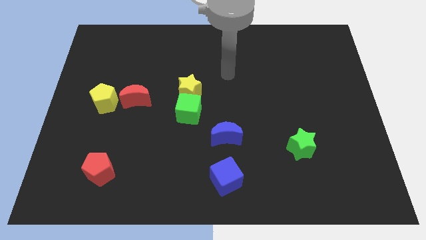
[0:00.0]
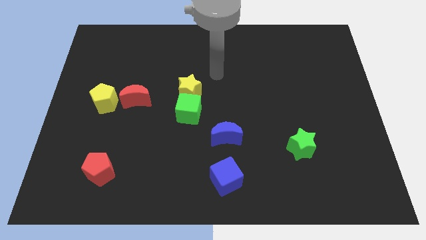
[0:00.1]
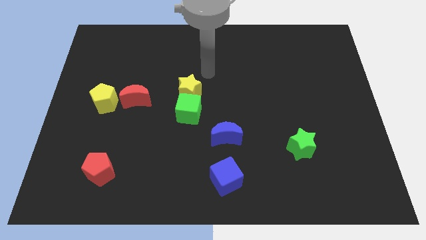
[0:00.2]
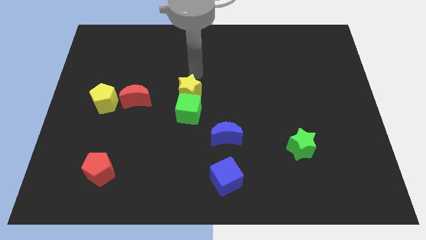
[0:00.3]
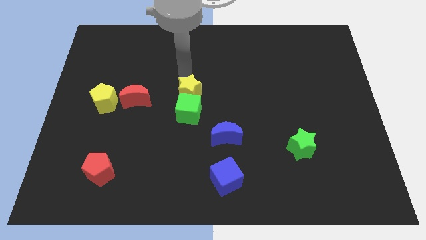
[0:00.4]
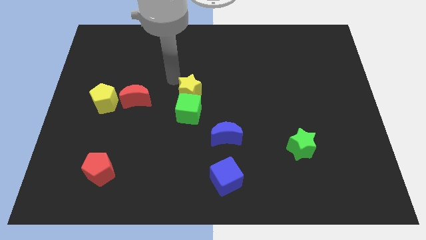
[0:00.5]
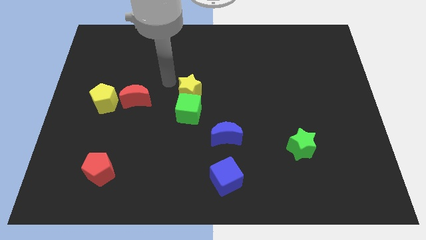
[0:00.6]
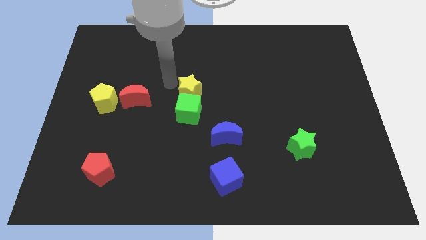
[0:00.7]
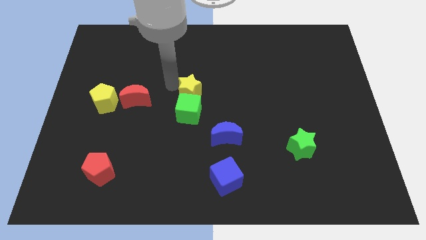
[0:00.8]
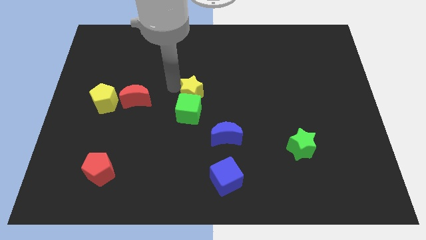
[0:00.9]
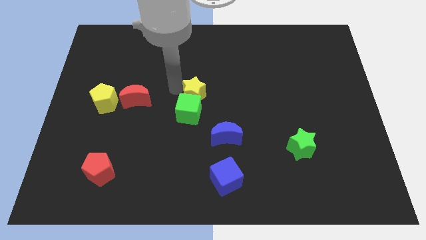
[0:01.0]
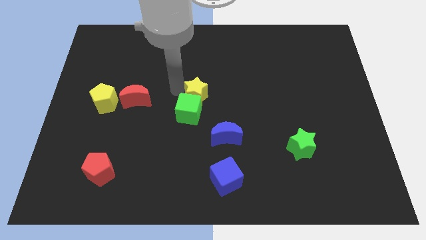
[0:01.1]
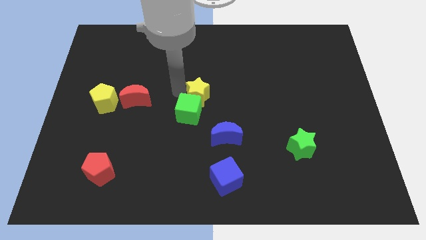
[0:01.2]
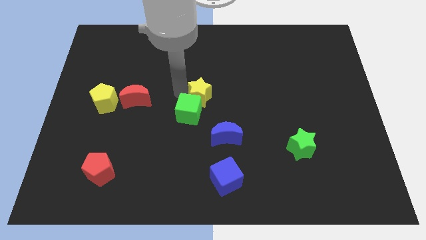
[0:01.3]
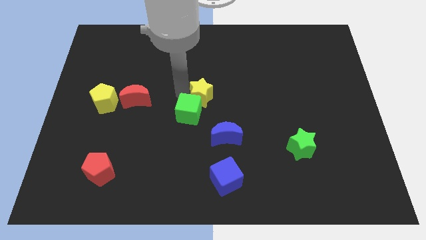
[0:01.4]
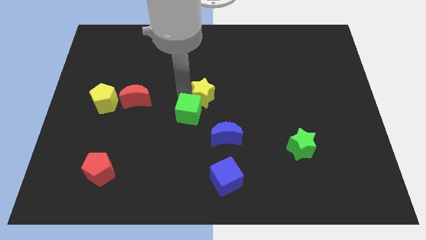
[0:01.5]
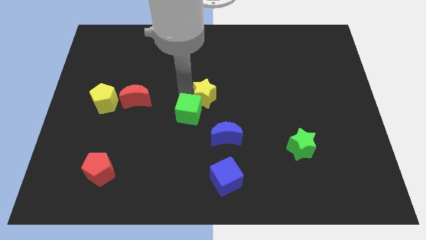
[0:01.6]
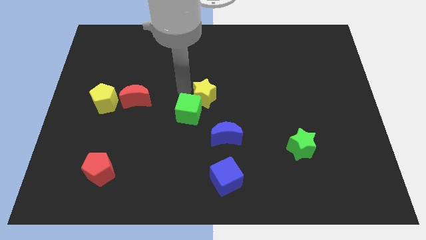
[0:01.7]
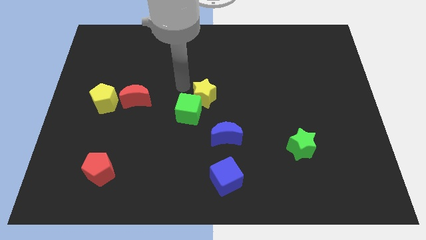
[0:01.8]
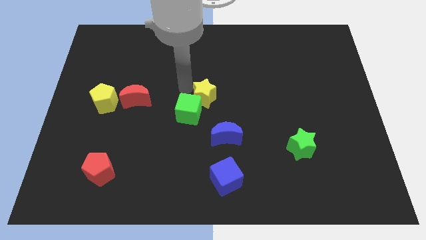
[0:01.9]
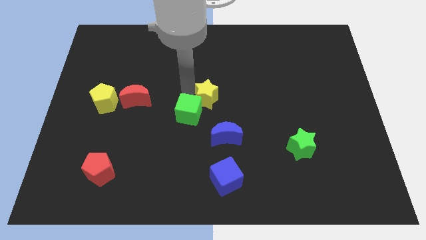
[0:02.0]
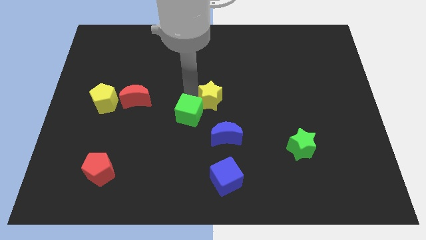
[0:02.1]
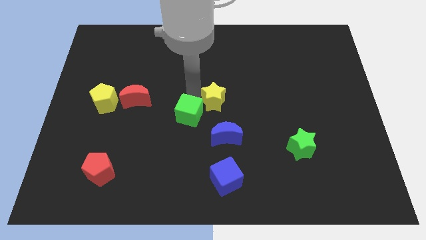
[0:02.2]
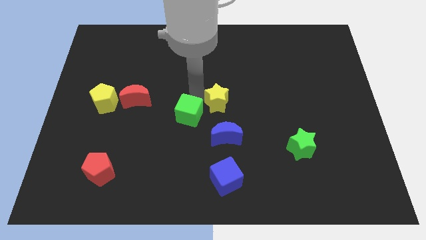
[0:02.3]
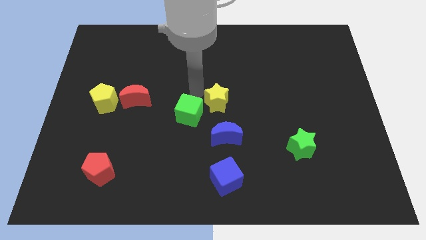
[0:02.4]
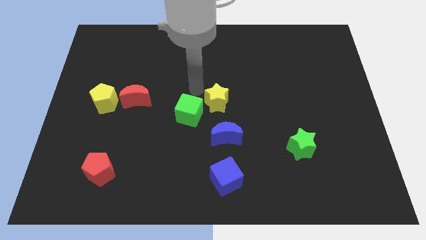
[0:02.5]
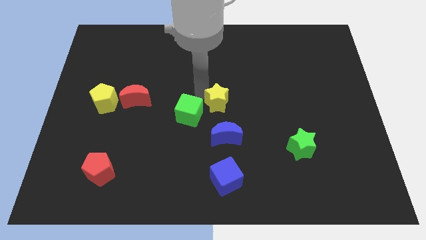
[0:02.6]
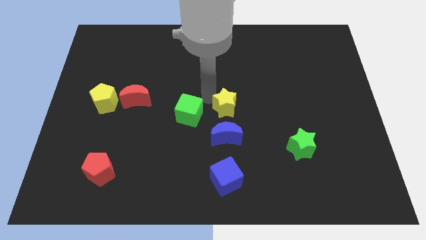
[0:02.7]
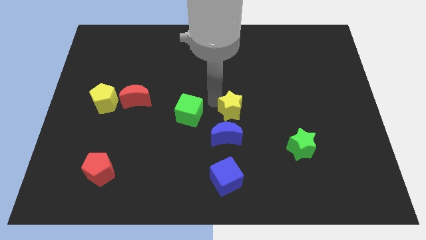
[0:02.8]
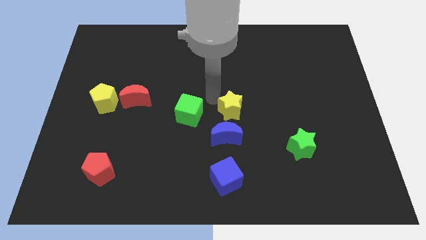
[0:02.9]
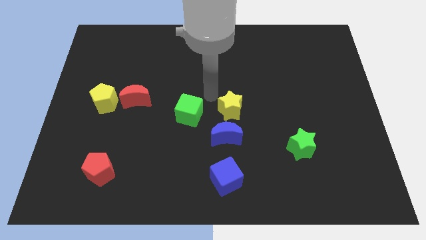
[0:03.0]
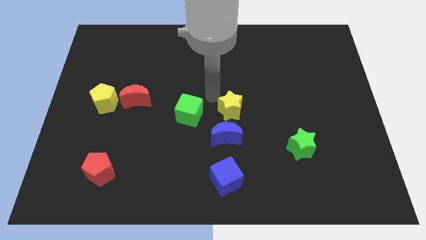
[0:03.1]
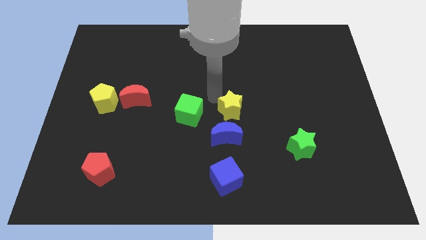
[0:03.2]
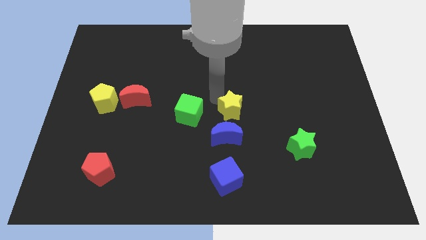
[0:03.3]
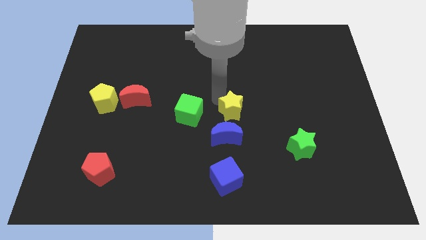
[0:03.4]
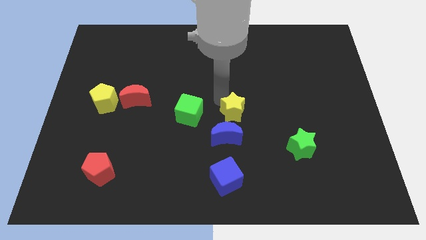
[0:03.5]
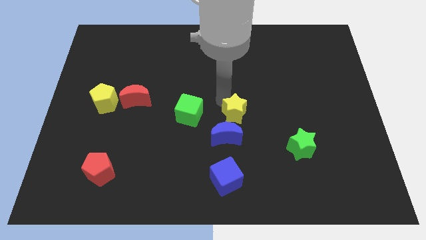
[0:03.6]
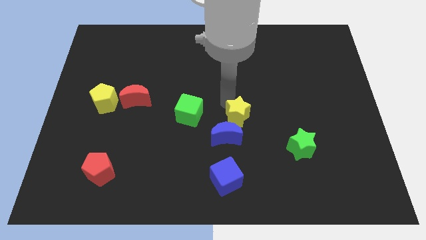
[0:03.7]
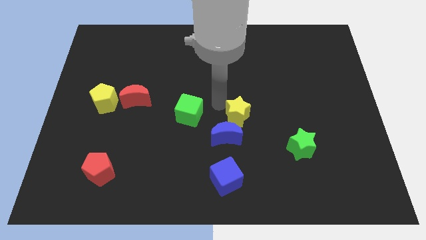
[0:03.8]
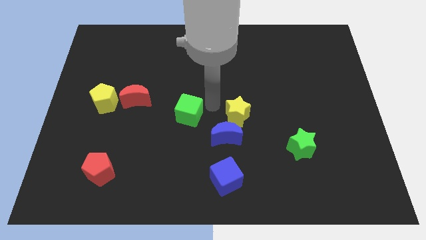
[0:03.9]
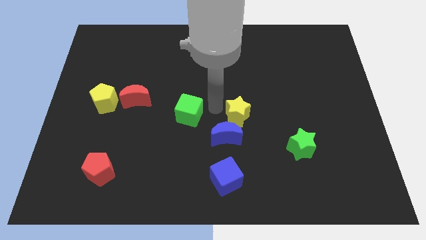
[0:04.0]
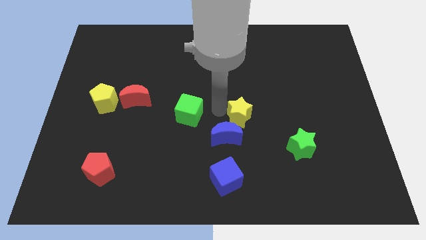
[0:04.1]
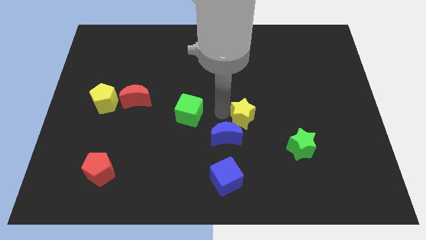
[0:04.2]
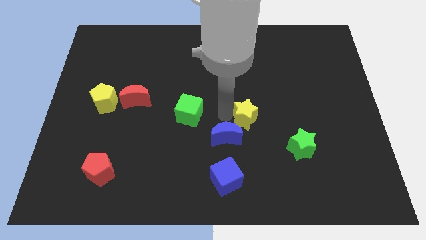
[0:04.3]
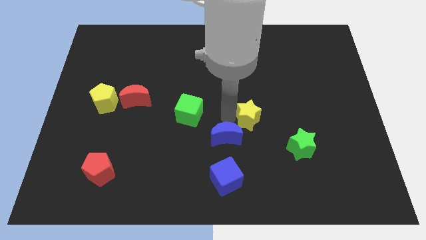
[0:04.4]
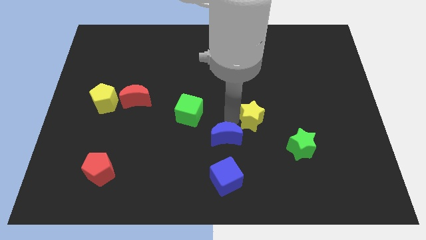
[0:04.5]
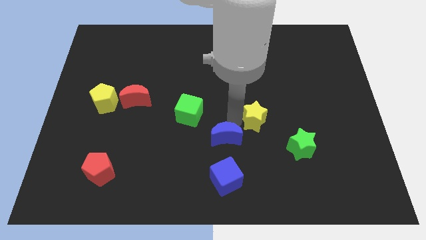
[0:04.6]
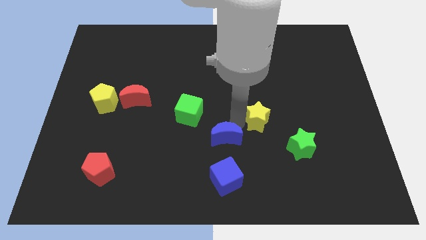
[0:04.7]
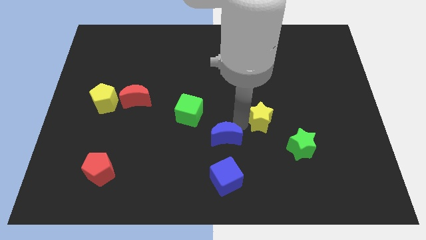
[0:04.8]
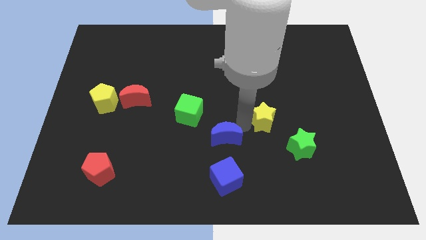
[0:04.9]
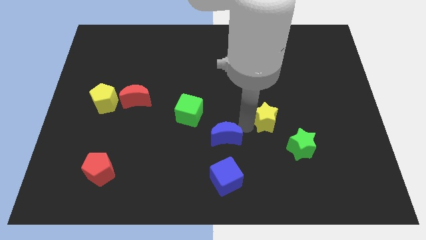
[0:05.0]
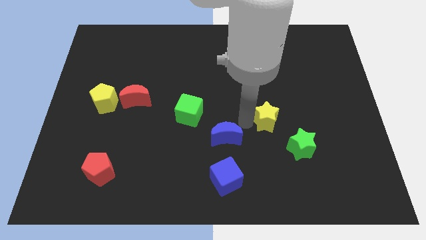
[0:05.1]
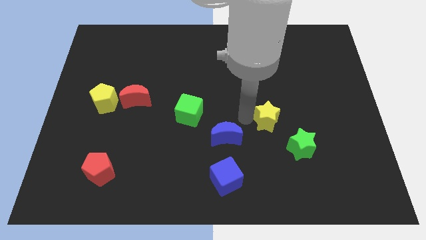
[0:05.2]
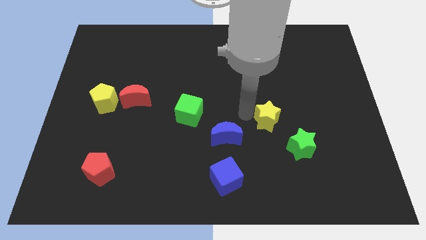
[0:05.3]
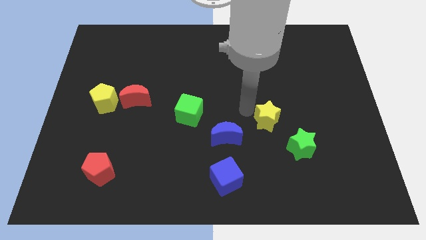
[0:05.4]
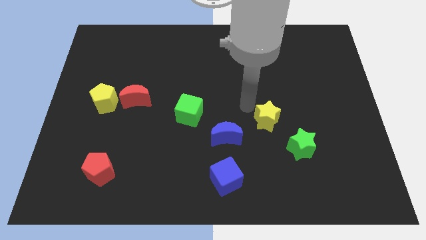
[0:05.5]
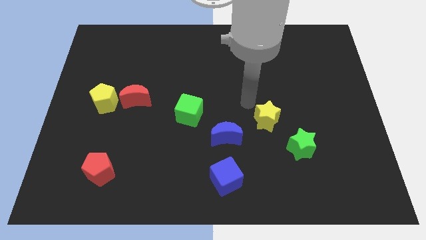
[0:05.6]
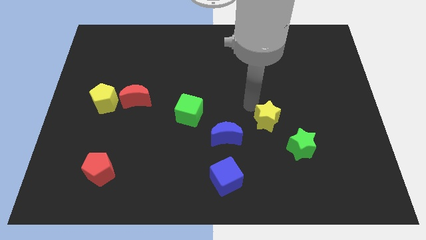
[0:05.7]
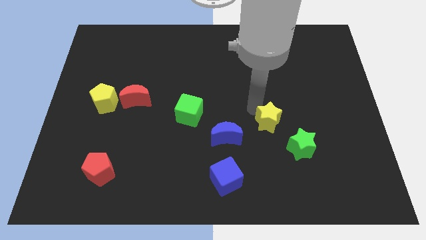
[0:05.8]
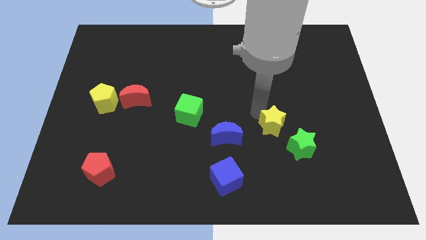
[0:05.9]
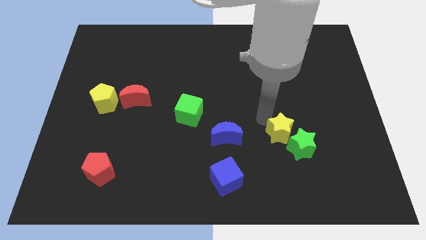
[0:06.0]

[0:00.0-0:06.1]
push the yellow star towards the green star
